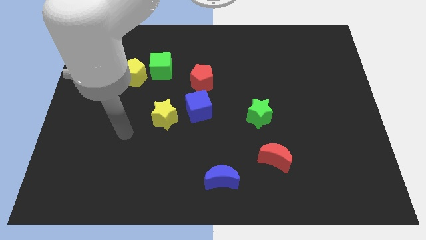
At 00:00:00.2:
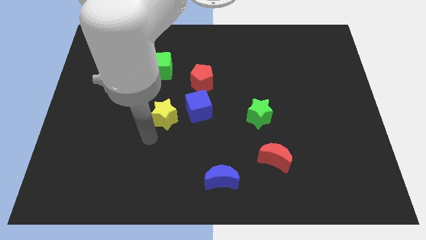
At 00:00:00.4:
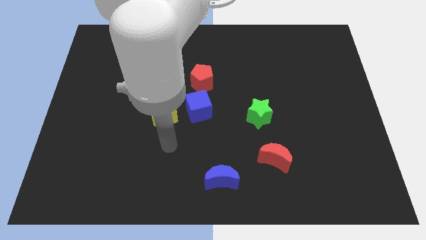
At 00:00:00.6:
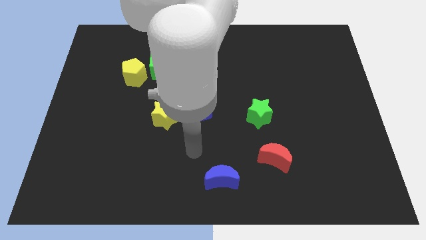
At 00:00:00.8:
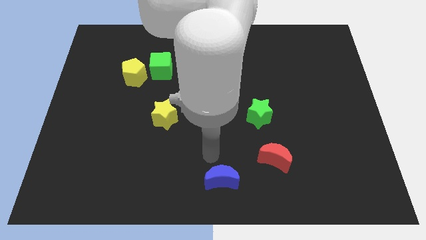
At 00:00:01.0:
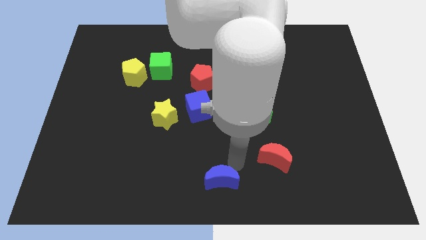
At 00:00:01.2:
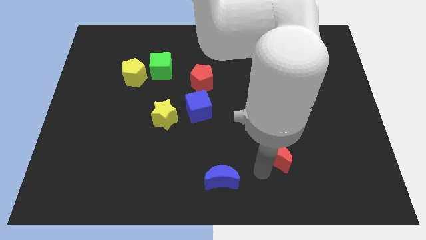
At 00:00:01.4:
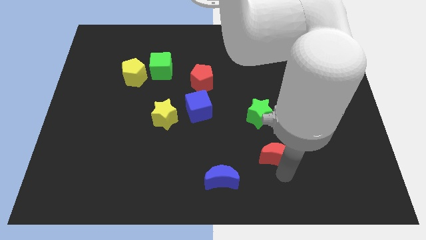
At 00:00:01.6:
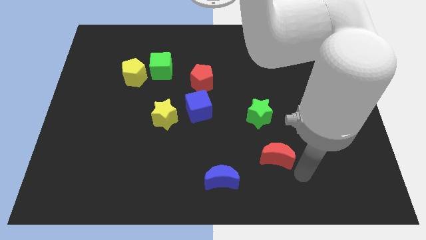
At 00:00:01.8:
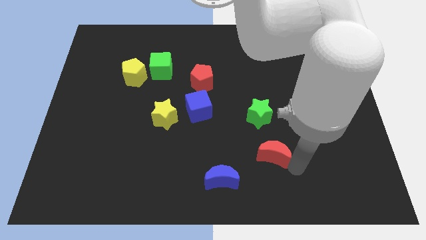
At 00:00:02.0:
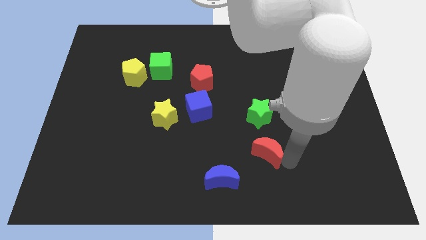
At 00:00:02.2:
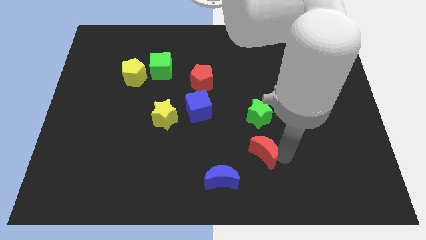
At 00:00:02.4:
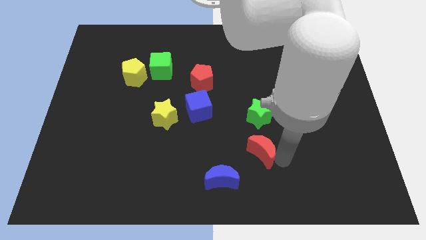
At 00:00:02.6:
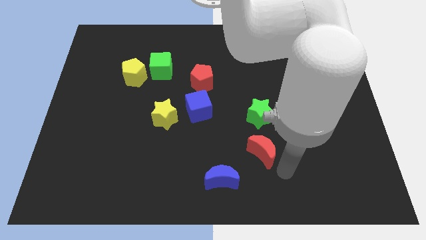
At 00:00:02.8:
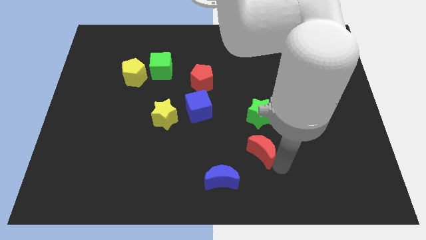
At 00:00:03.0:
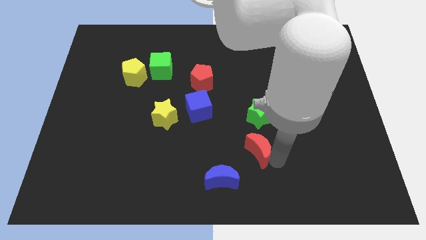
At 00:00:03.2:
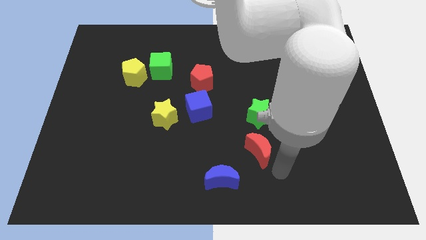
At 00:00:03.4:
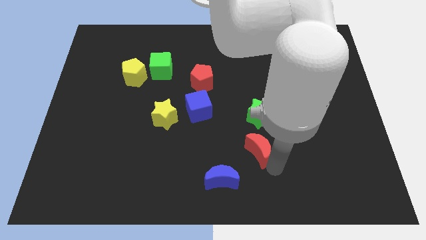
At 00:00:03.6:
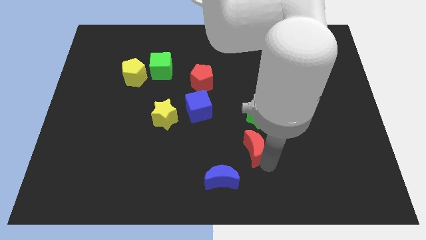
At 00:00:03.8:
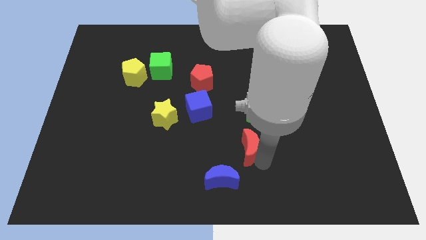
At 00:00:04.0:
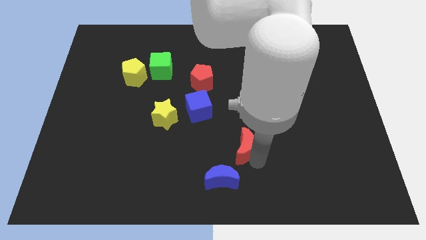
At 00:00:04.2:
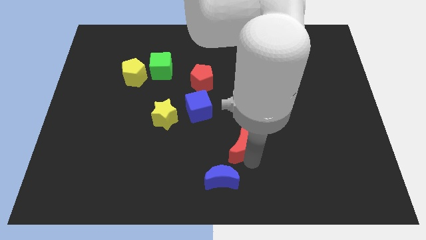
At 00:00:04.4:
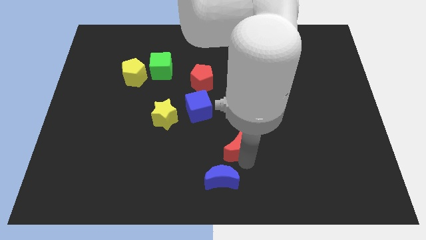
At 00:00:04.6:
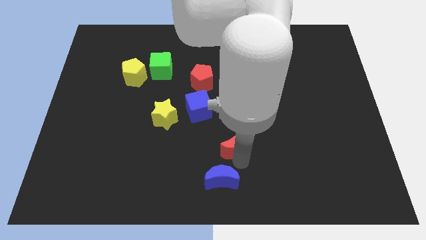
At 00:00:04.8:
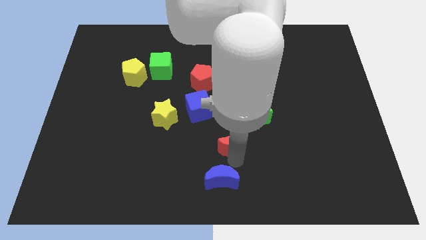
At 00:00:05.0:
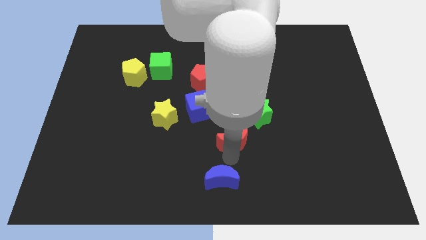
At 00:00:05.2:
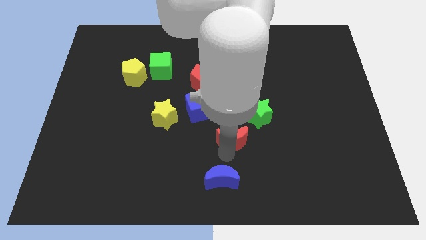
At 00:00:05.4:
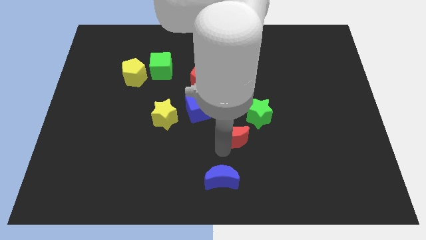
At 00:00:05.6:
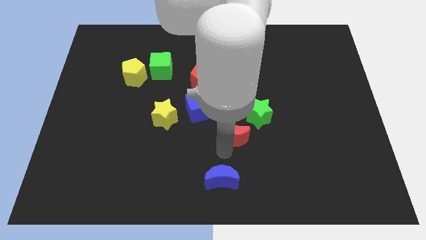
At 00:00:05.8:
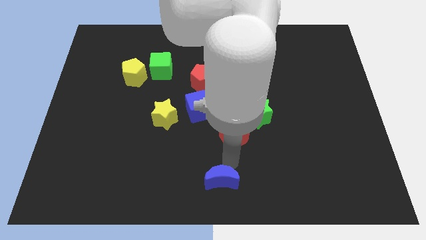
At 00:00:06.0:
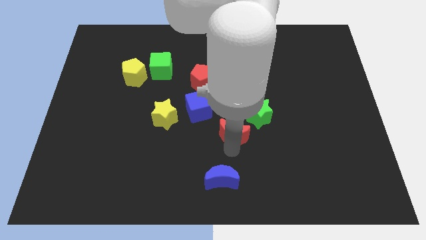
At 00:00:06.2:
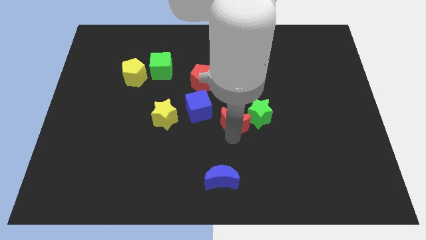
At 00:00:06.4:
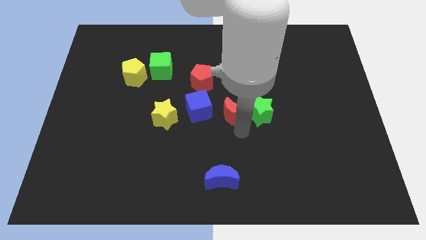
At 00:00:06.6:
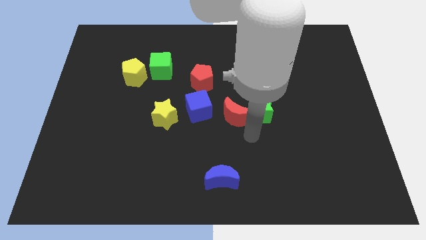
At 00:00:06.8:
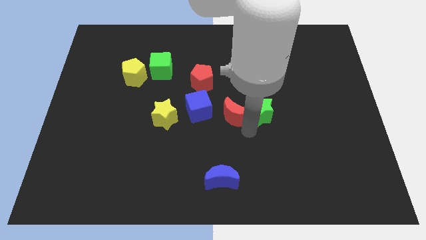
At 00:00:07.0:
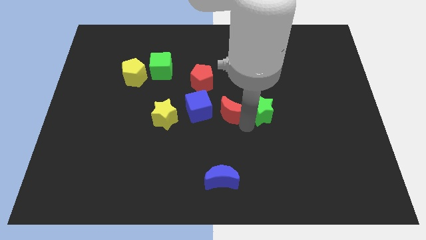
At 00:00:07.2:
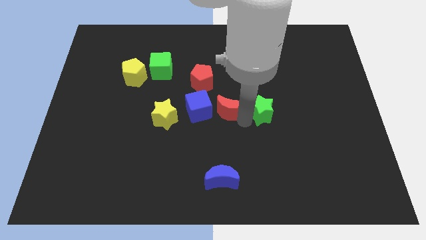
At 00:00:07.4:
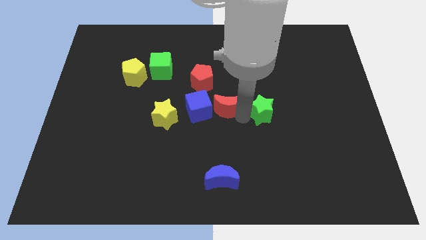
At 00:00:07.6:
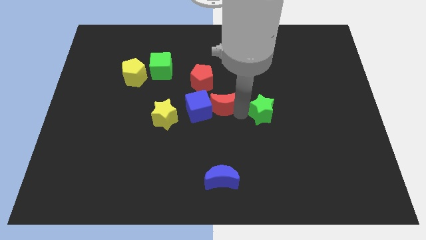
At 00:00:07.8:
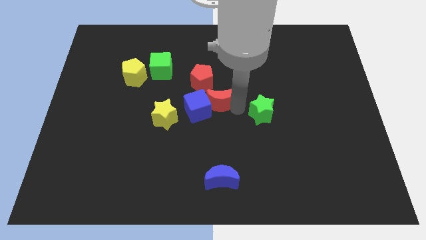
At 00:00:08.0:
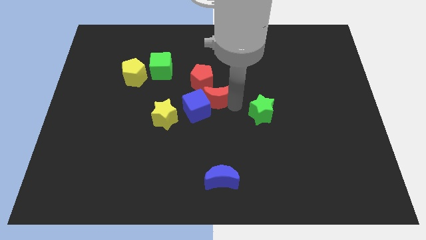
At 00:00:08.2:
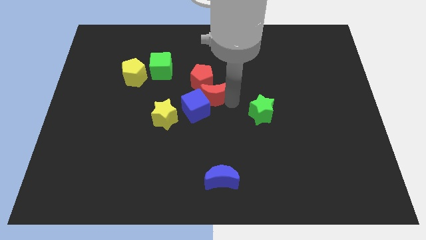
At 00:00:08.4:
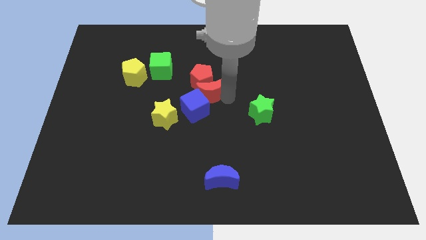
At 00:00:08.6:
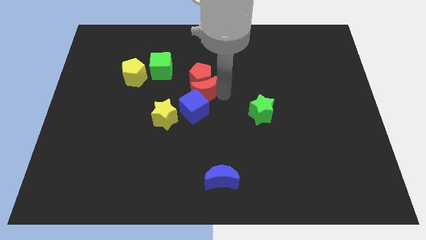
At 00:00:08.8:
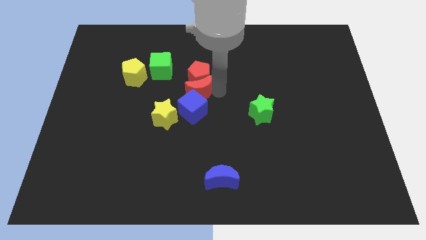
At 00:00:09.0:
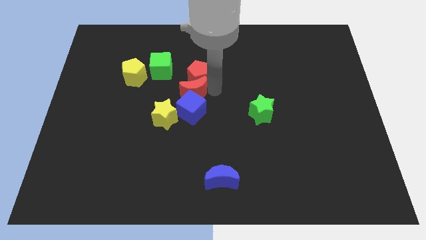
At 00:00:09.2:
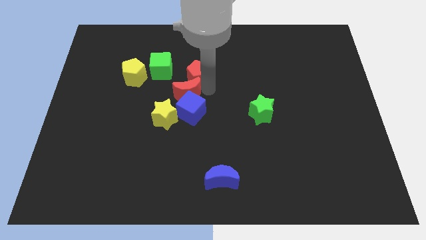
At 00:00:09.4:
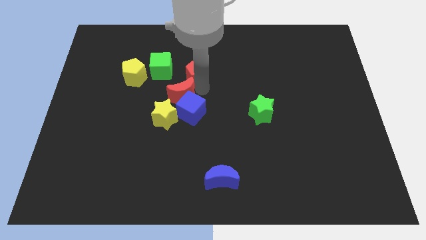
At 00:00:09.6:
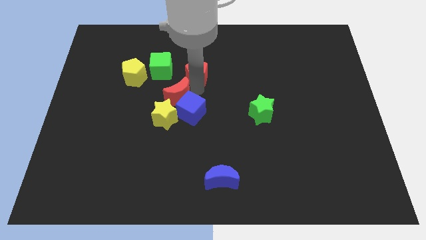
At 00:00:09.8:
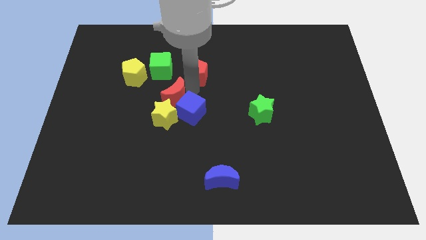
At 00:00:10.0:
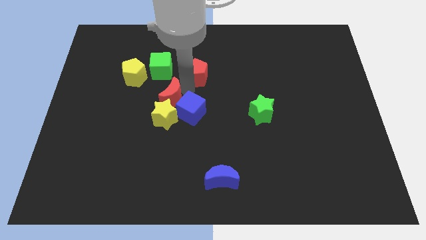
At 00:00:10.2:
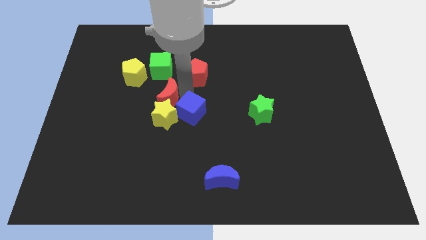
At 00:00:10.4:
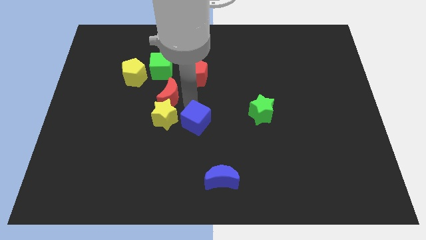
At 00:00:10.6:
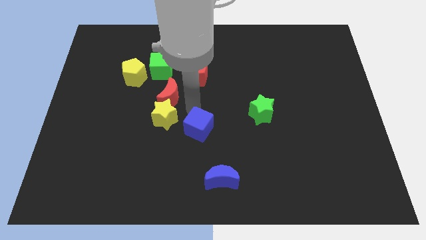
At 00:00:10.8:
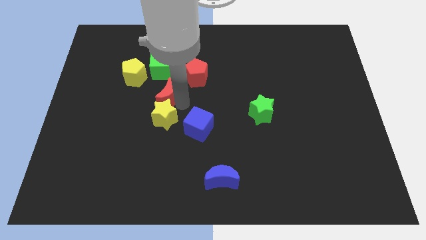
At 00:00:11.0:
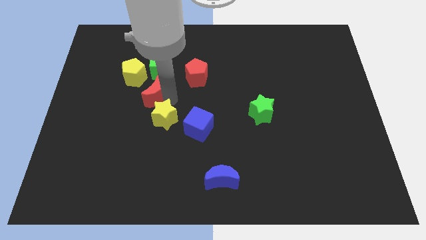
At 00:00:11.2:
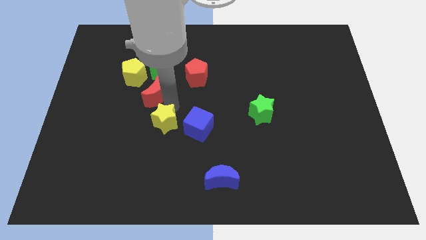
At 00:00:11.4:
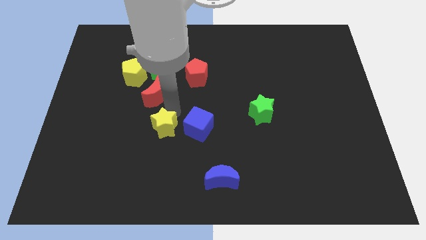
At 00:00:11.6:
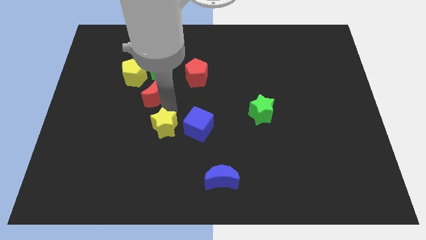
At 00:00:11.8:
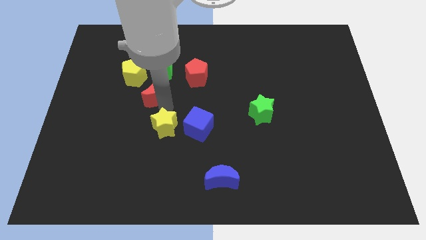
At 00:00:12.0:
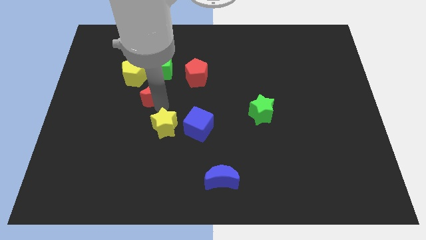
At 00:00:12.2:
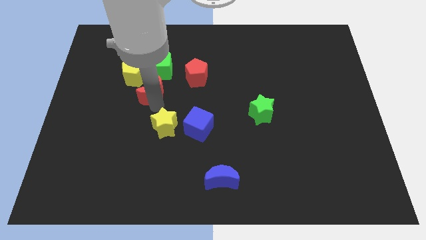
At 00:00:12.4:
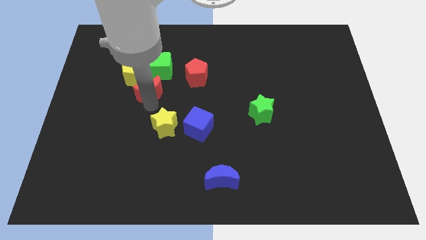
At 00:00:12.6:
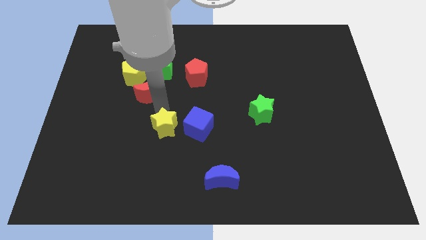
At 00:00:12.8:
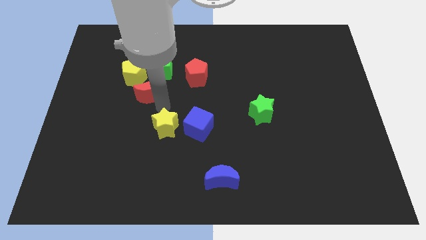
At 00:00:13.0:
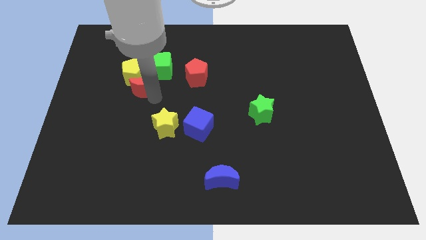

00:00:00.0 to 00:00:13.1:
push the red moon to the yellow pentagon

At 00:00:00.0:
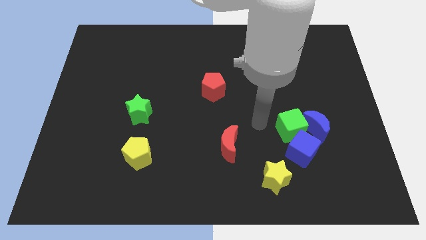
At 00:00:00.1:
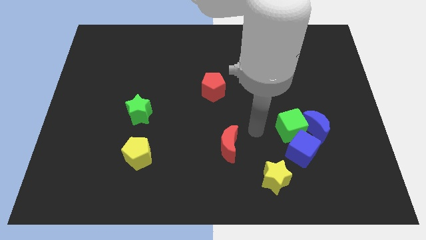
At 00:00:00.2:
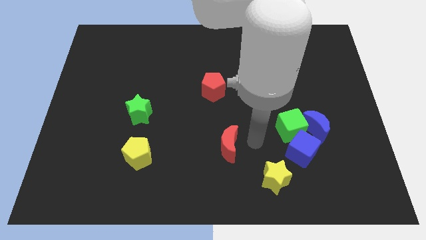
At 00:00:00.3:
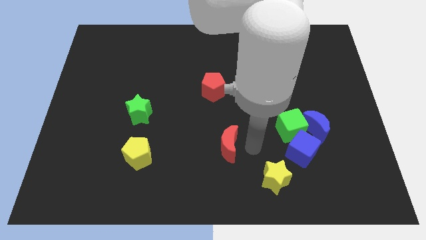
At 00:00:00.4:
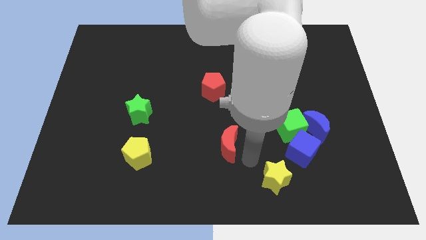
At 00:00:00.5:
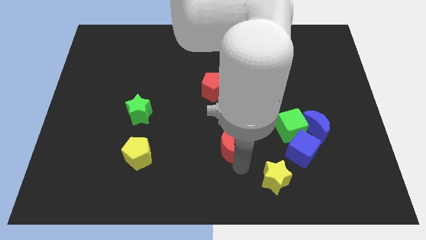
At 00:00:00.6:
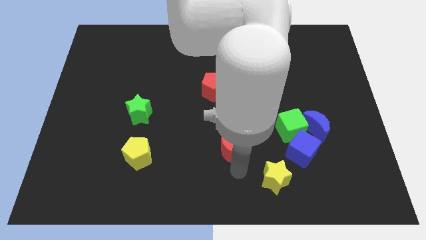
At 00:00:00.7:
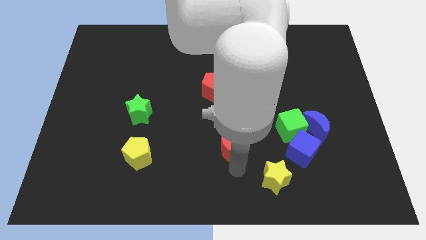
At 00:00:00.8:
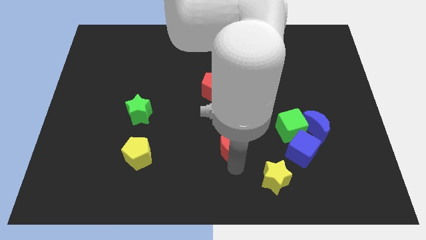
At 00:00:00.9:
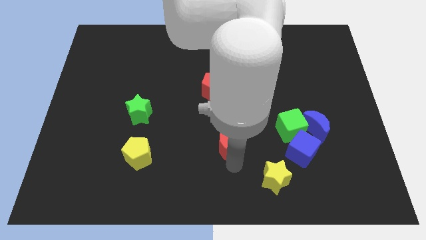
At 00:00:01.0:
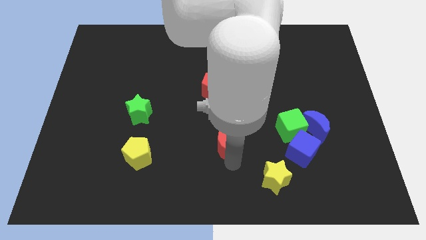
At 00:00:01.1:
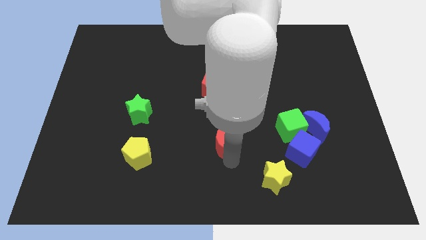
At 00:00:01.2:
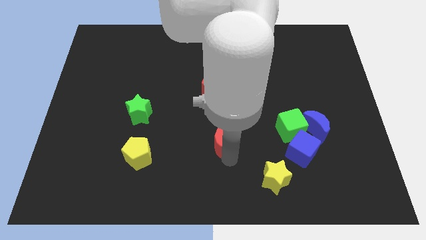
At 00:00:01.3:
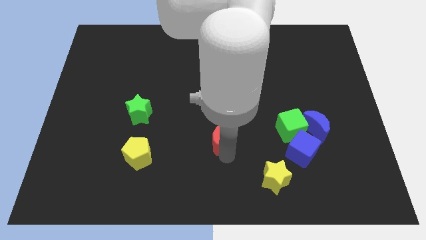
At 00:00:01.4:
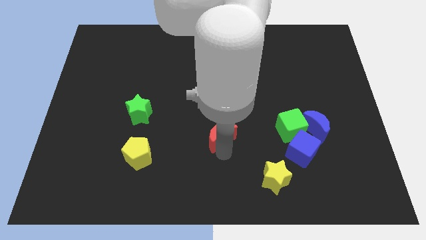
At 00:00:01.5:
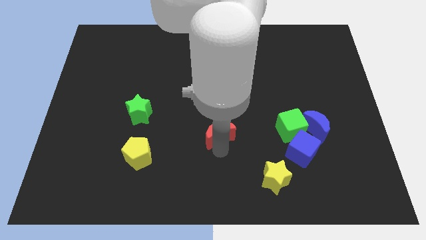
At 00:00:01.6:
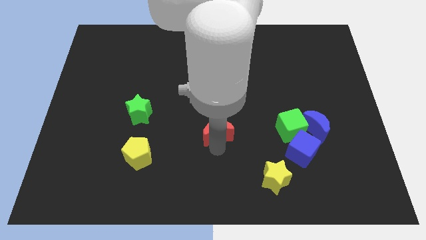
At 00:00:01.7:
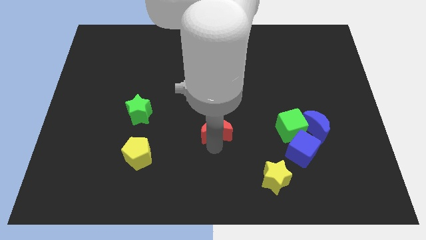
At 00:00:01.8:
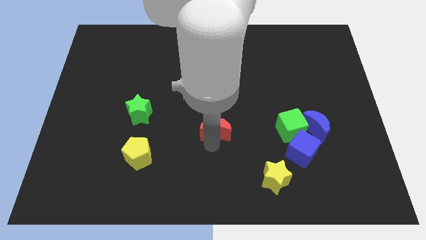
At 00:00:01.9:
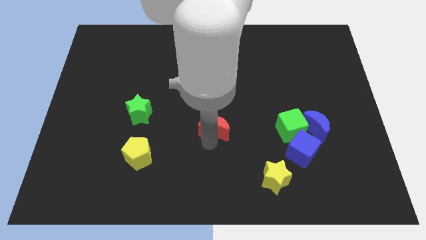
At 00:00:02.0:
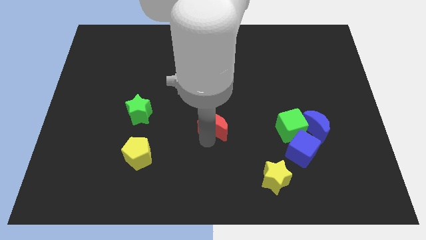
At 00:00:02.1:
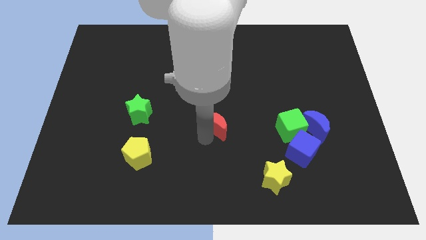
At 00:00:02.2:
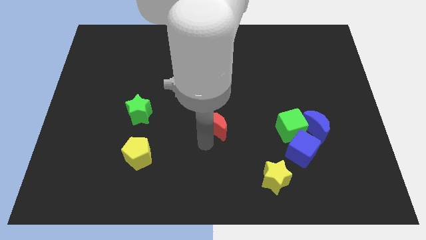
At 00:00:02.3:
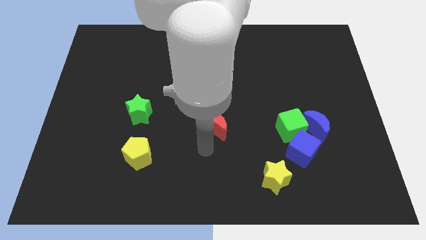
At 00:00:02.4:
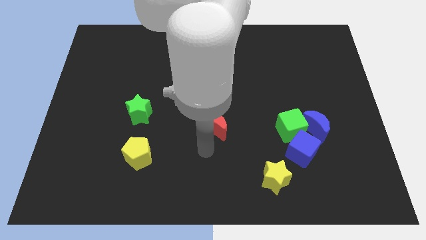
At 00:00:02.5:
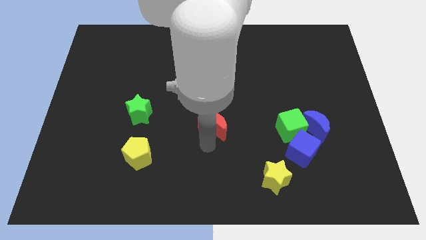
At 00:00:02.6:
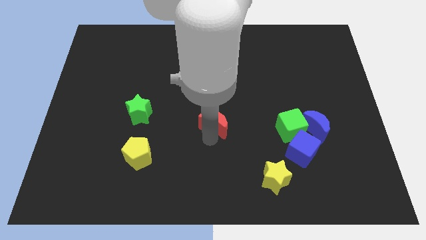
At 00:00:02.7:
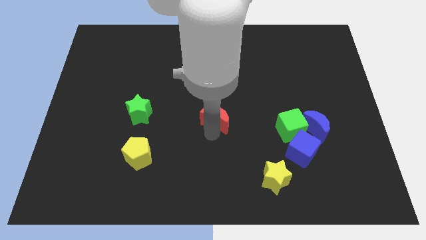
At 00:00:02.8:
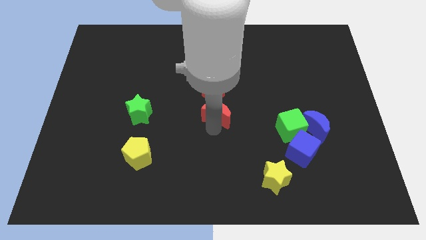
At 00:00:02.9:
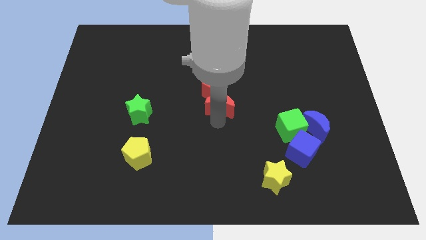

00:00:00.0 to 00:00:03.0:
put the red moon to the red pentagon
